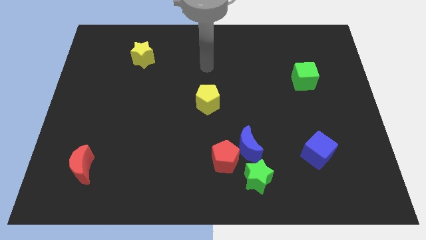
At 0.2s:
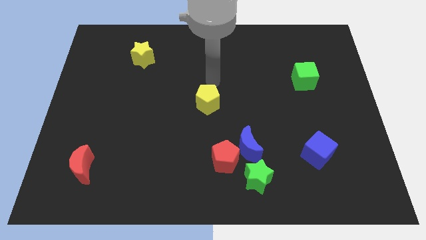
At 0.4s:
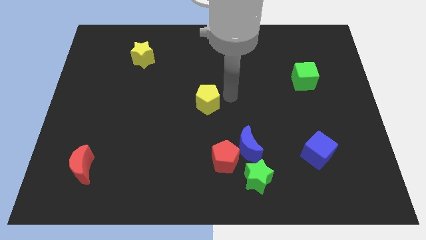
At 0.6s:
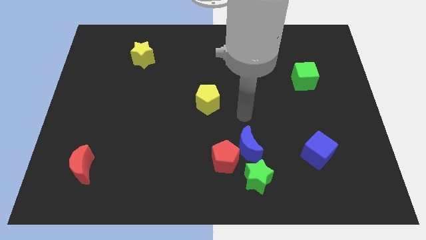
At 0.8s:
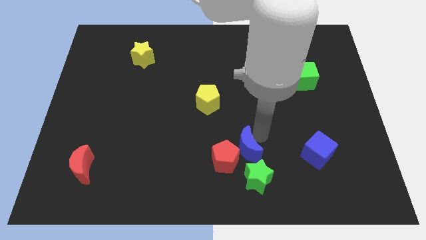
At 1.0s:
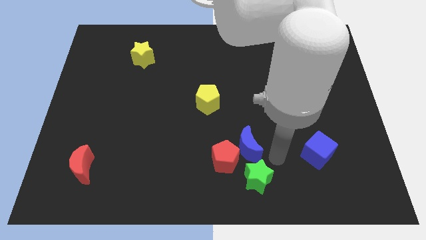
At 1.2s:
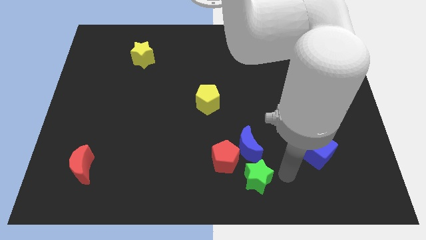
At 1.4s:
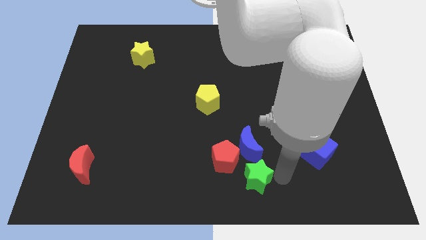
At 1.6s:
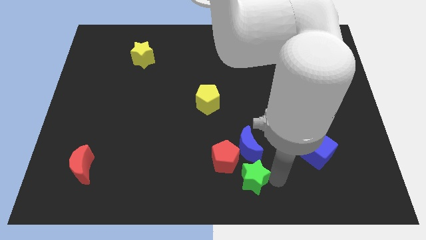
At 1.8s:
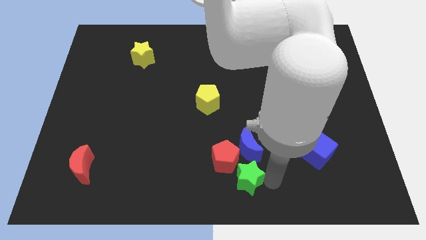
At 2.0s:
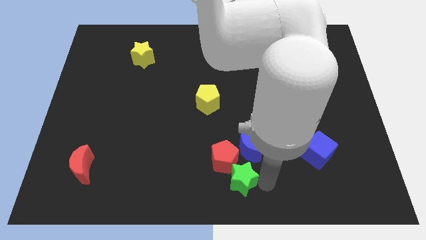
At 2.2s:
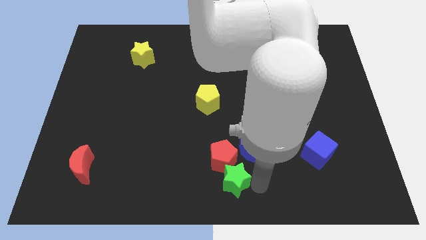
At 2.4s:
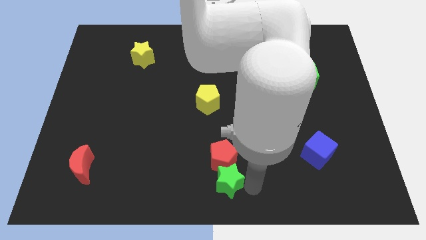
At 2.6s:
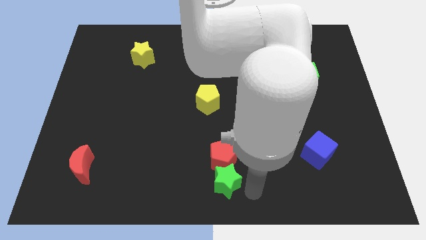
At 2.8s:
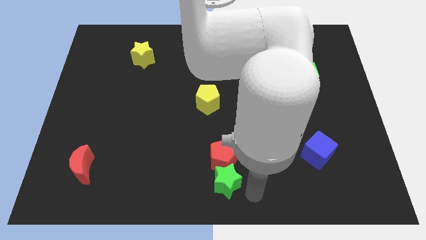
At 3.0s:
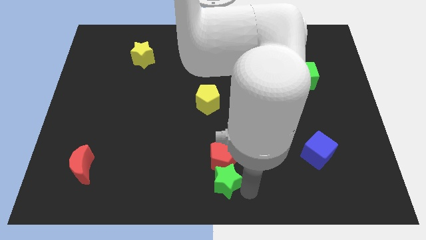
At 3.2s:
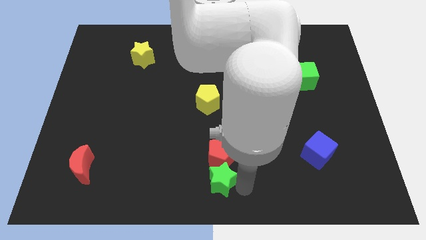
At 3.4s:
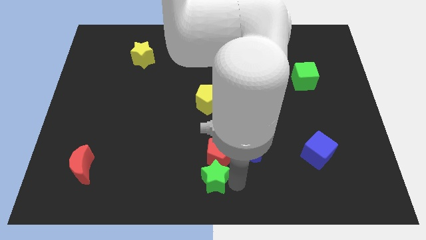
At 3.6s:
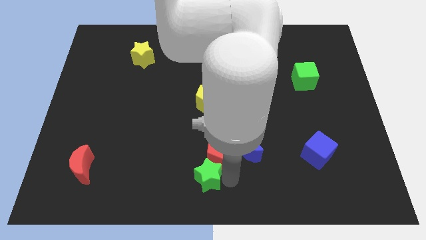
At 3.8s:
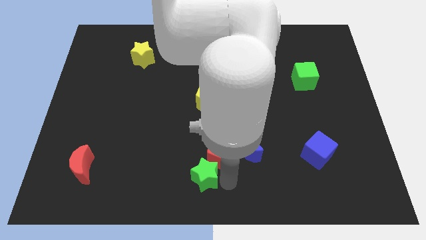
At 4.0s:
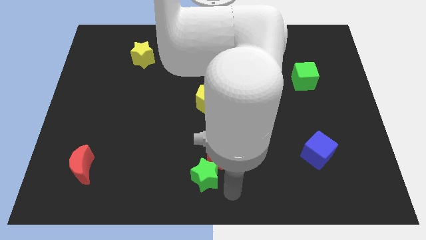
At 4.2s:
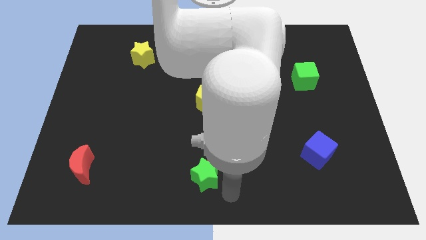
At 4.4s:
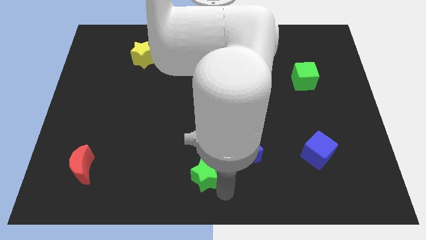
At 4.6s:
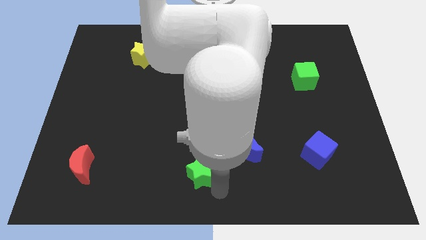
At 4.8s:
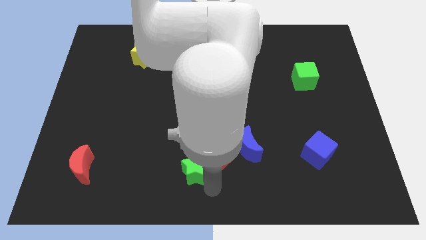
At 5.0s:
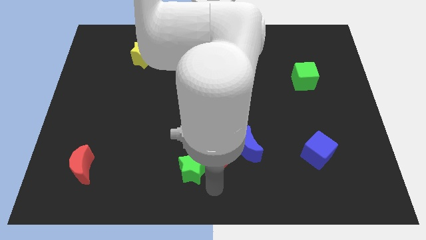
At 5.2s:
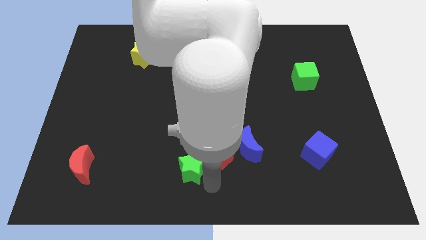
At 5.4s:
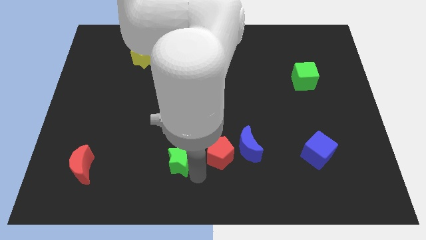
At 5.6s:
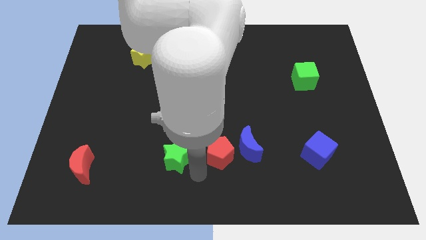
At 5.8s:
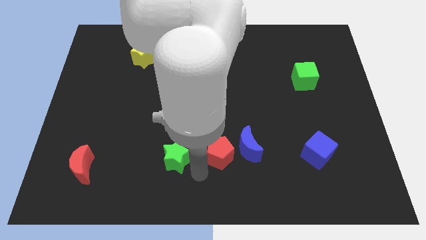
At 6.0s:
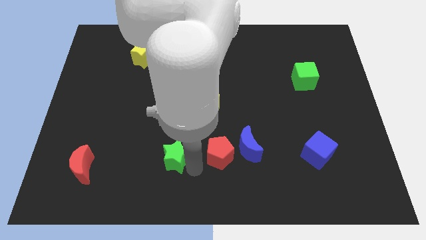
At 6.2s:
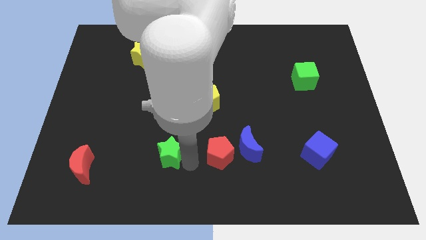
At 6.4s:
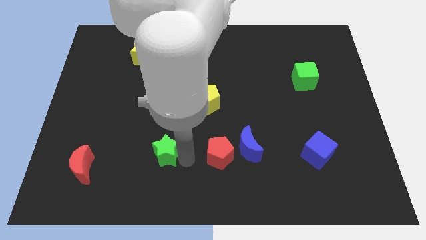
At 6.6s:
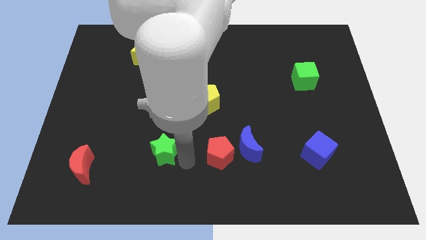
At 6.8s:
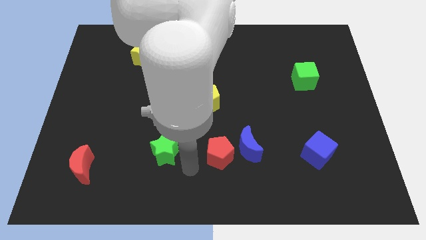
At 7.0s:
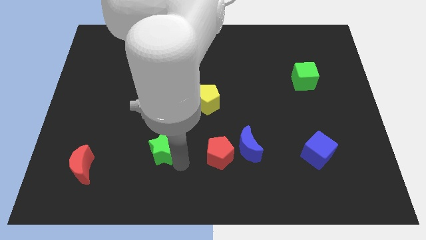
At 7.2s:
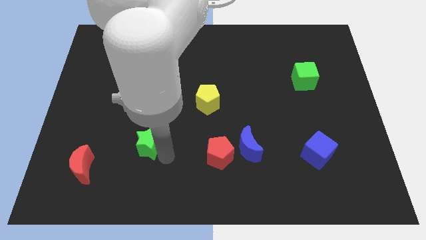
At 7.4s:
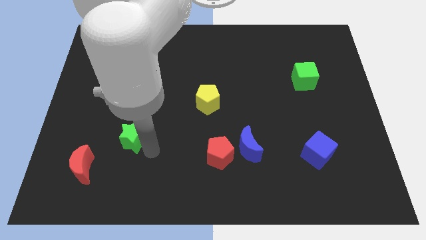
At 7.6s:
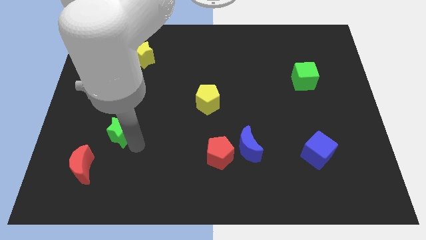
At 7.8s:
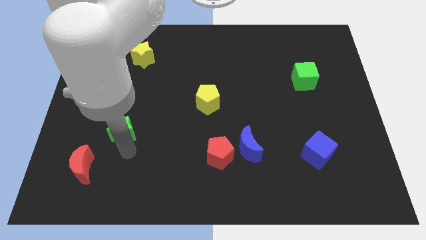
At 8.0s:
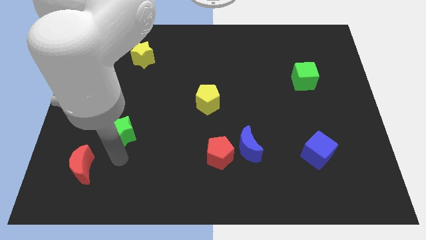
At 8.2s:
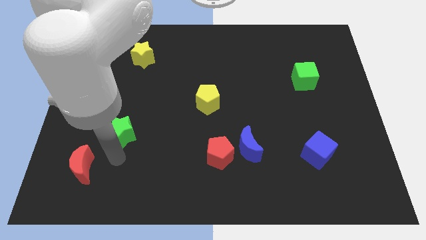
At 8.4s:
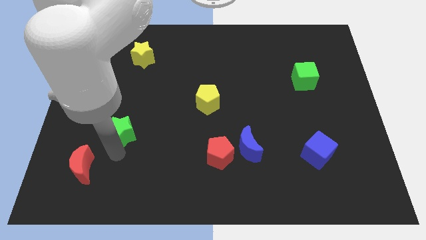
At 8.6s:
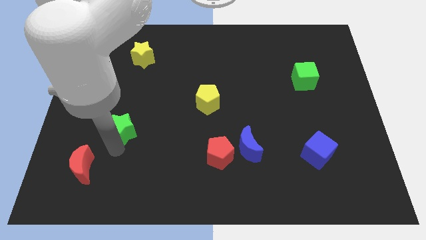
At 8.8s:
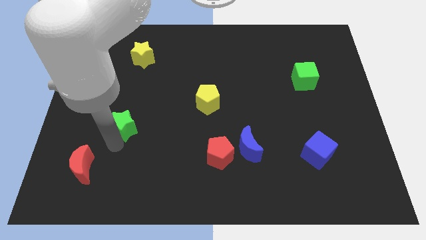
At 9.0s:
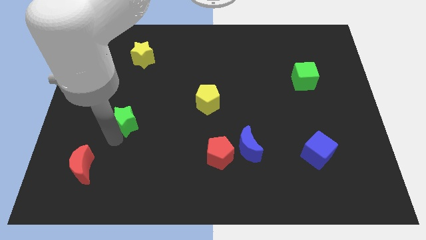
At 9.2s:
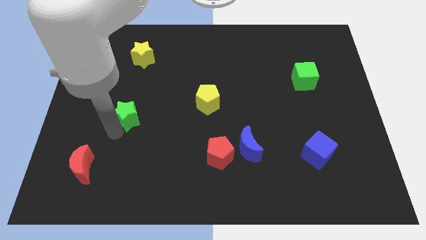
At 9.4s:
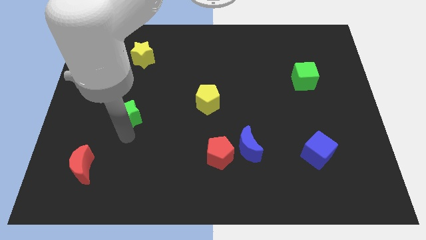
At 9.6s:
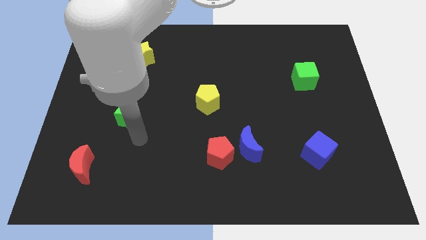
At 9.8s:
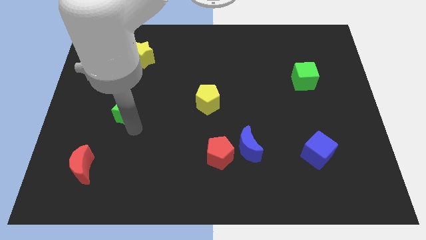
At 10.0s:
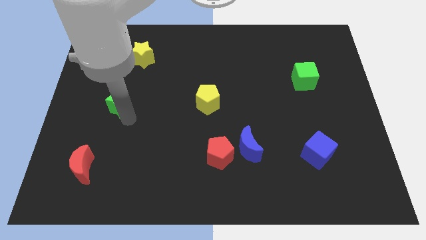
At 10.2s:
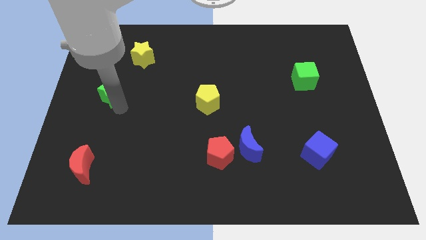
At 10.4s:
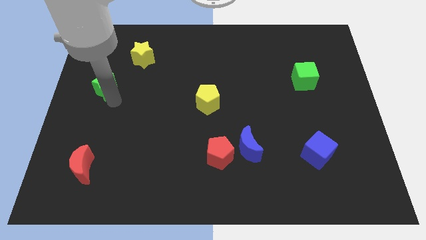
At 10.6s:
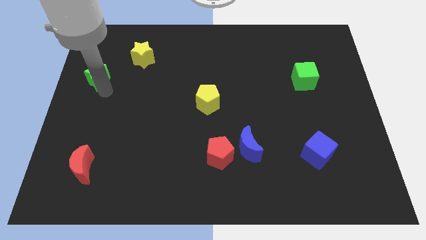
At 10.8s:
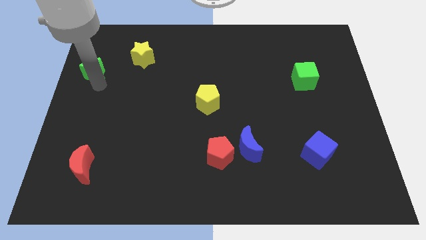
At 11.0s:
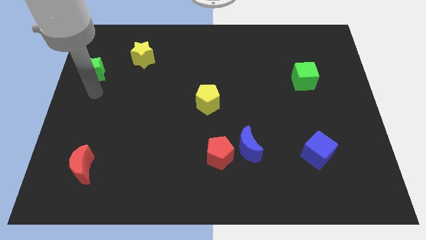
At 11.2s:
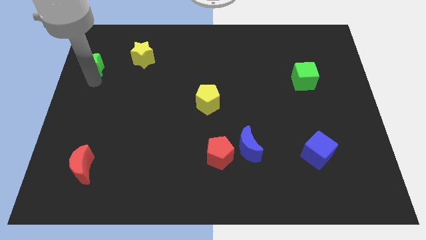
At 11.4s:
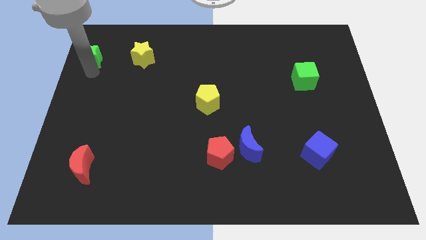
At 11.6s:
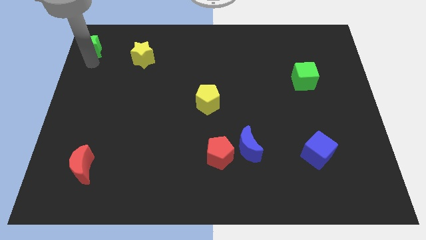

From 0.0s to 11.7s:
move the green star to the upper left corner

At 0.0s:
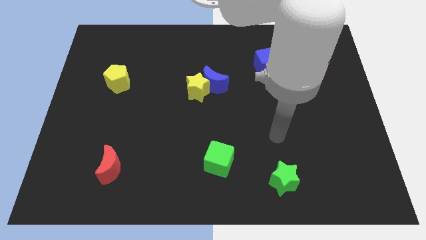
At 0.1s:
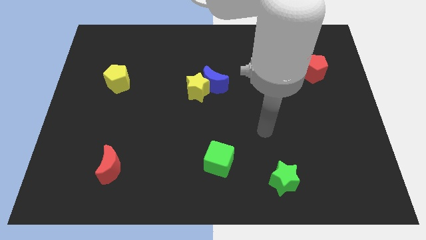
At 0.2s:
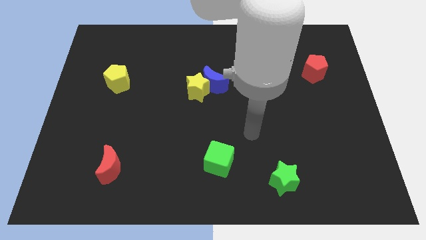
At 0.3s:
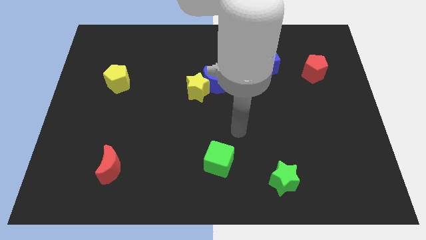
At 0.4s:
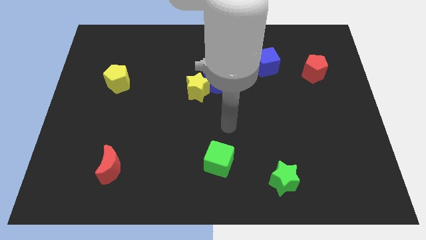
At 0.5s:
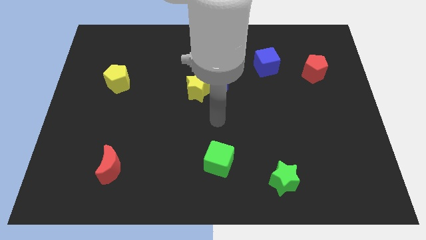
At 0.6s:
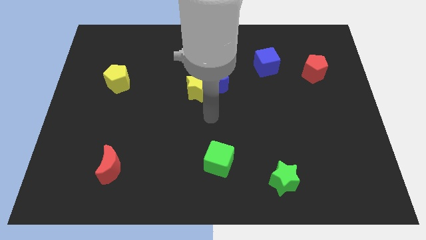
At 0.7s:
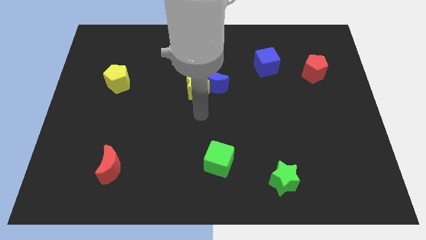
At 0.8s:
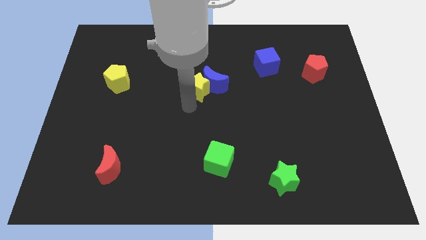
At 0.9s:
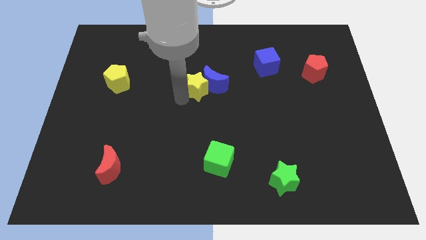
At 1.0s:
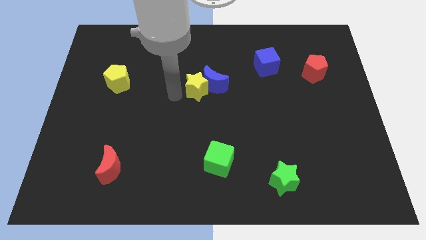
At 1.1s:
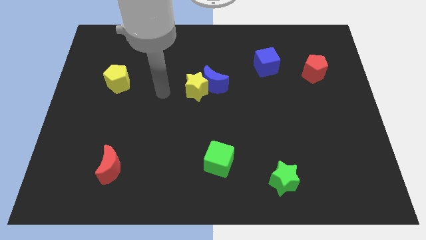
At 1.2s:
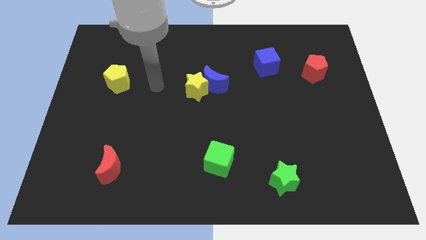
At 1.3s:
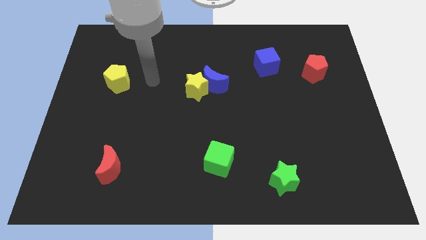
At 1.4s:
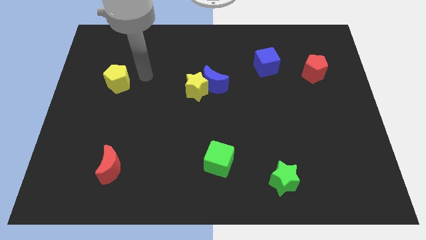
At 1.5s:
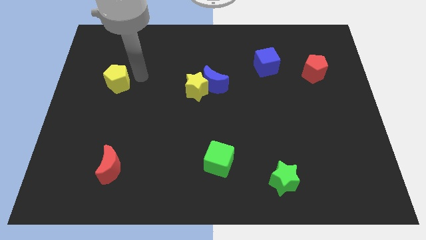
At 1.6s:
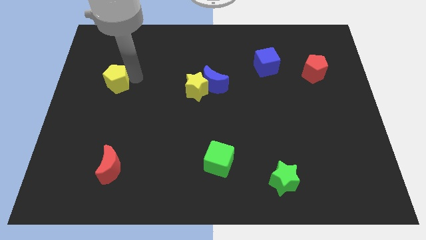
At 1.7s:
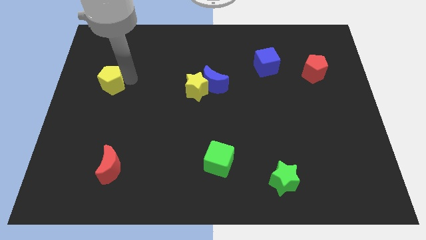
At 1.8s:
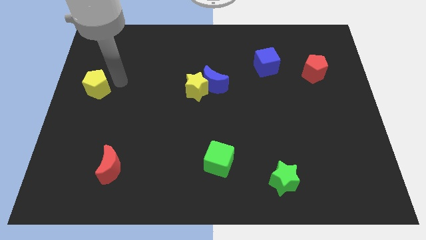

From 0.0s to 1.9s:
move the yellow pentagon to the left side of the board
